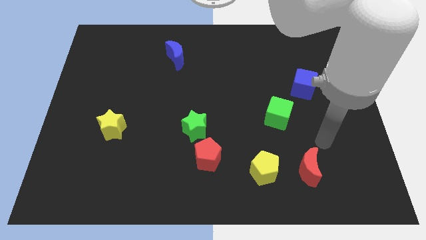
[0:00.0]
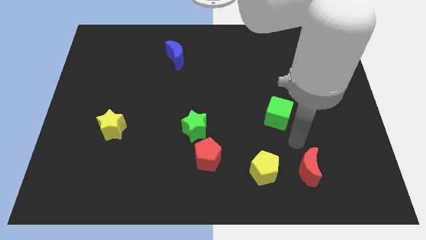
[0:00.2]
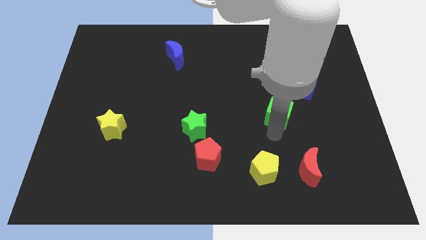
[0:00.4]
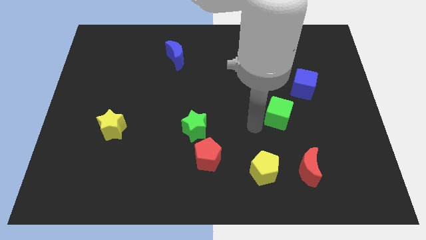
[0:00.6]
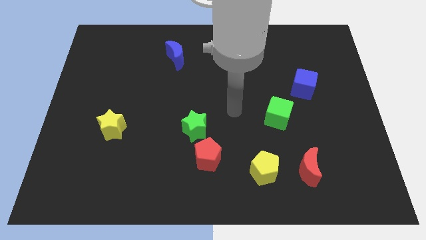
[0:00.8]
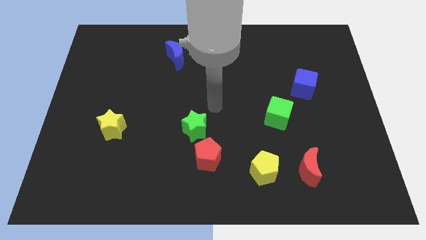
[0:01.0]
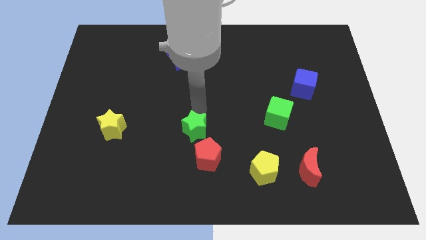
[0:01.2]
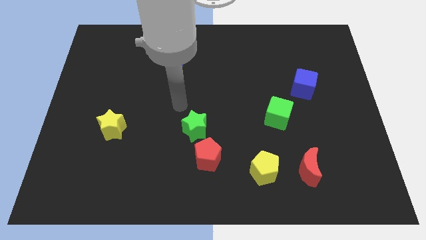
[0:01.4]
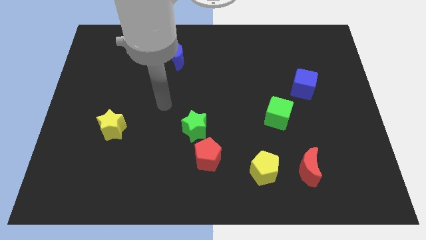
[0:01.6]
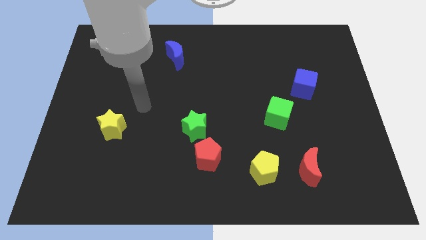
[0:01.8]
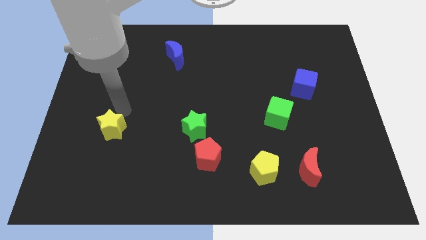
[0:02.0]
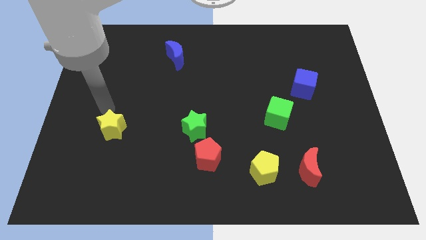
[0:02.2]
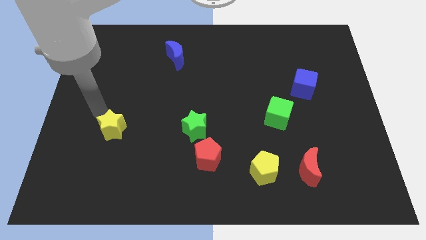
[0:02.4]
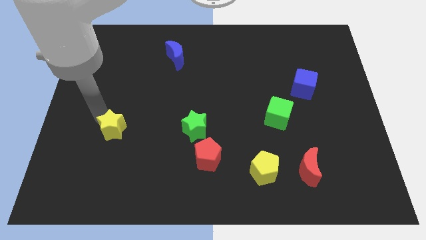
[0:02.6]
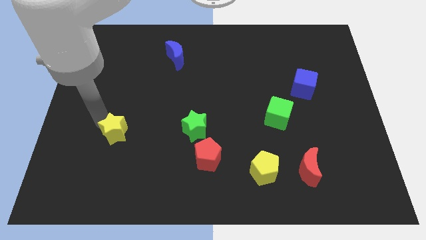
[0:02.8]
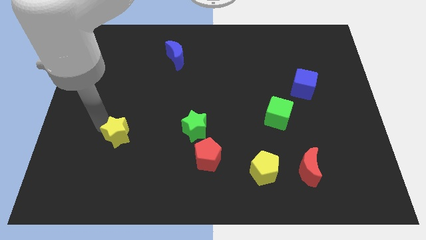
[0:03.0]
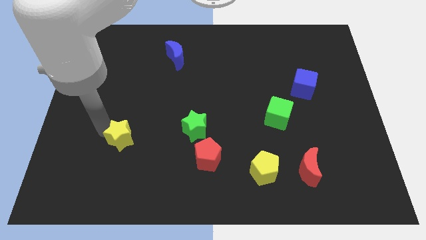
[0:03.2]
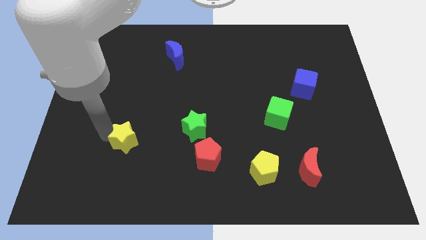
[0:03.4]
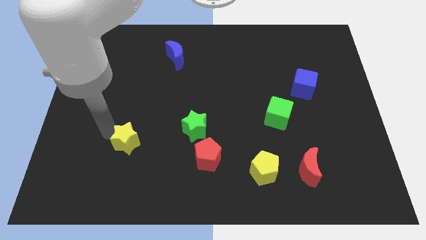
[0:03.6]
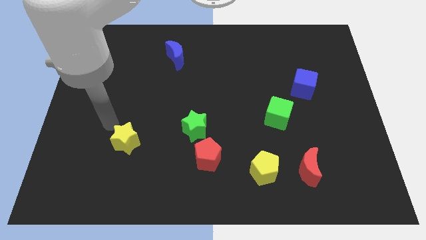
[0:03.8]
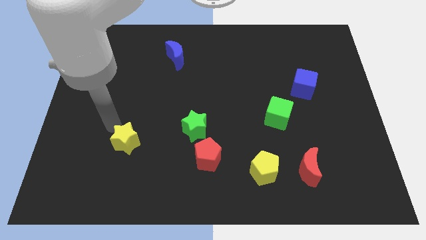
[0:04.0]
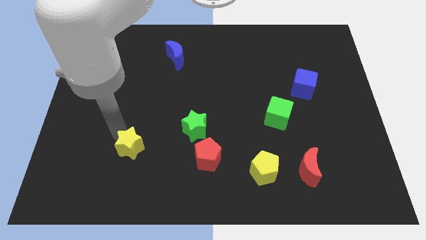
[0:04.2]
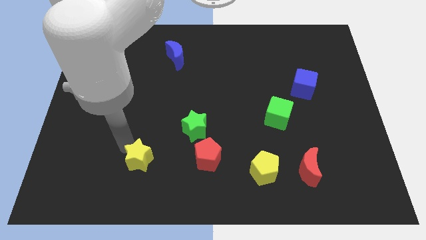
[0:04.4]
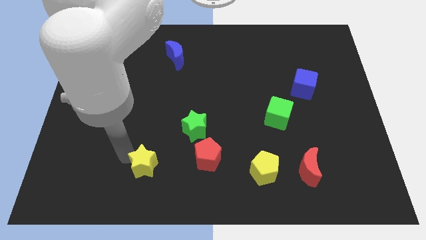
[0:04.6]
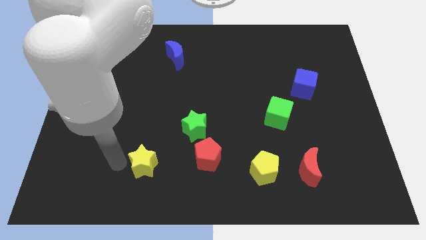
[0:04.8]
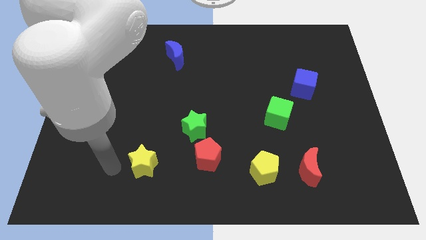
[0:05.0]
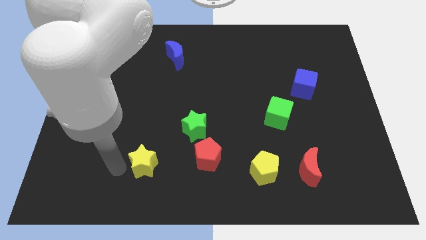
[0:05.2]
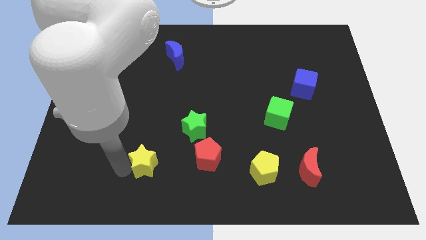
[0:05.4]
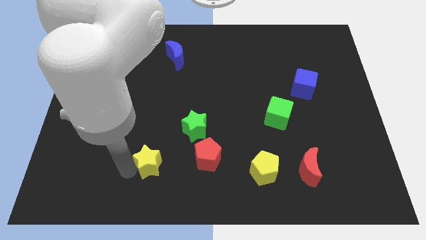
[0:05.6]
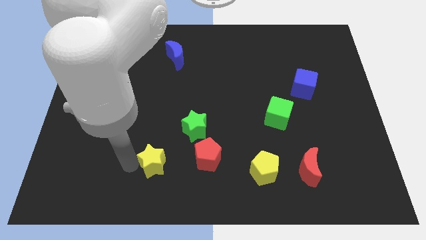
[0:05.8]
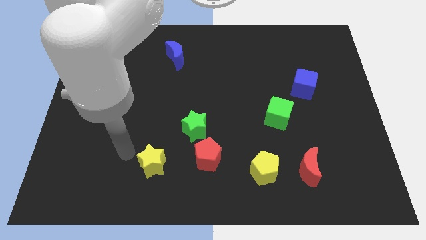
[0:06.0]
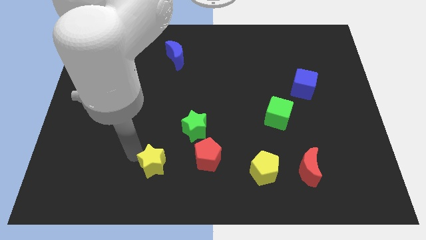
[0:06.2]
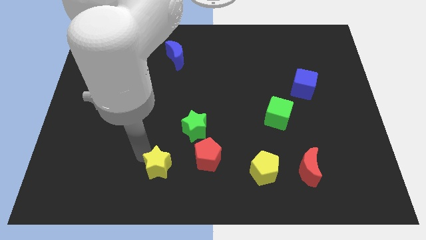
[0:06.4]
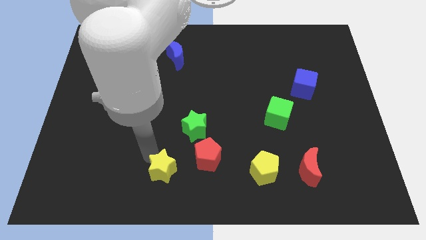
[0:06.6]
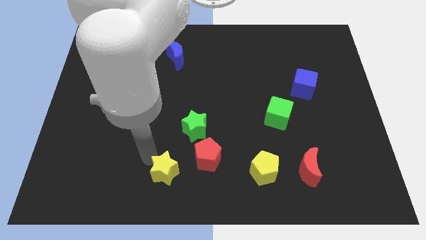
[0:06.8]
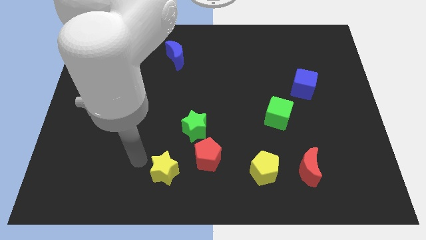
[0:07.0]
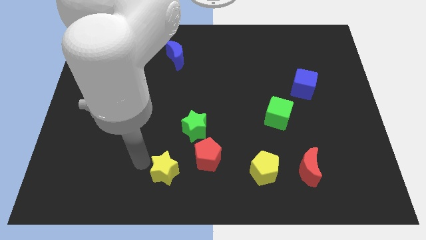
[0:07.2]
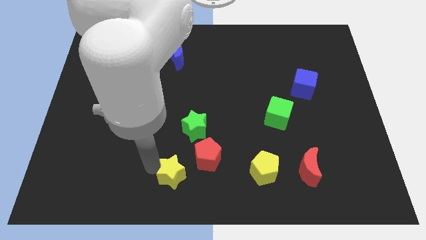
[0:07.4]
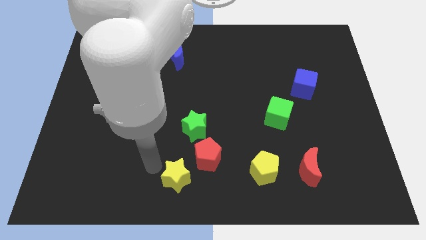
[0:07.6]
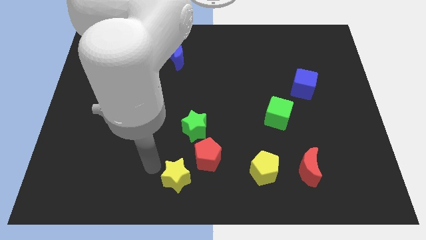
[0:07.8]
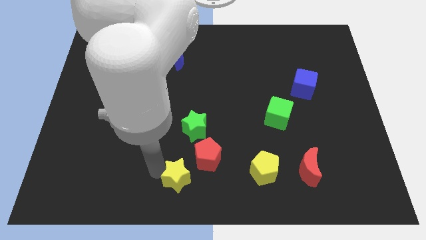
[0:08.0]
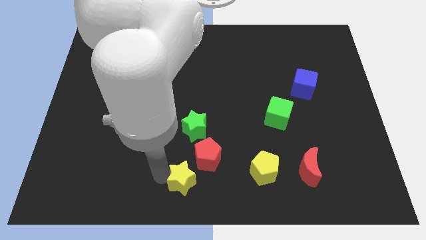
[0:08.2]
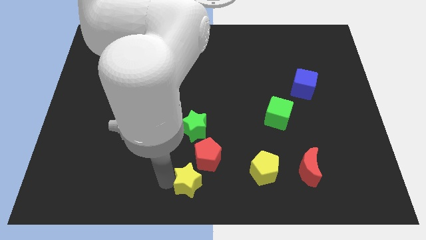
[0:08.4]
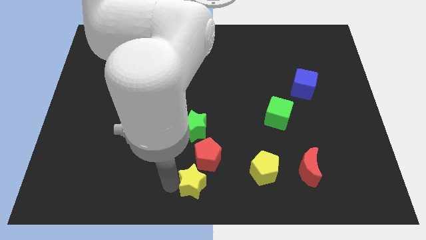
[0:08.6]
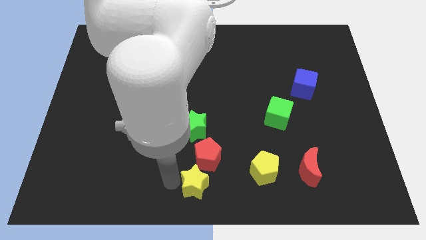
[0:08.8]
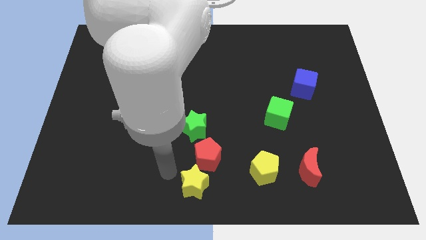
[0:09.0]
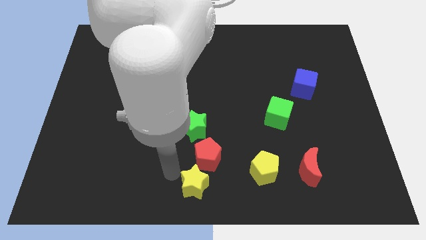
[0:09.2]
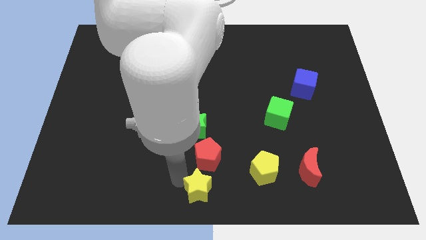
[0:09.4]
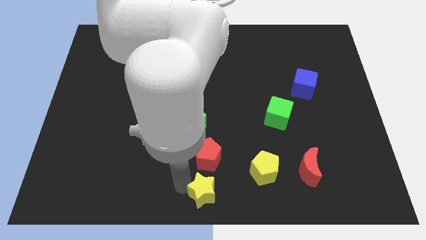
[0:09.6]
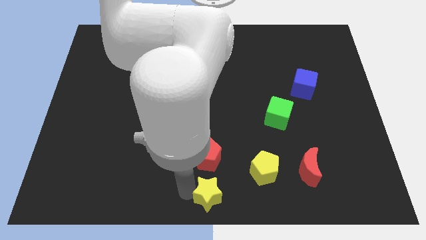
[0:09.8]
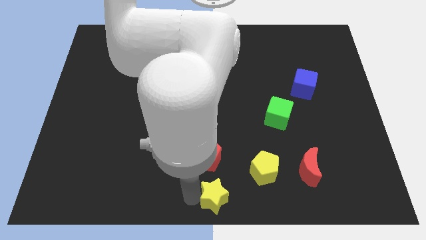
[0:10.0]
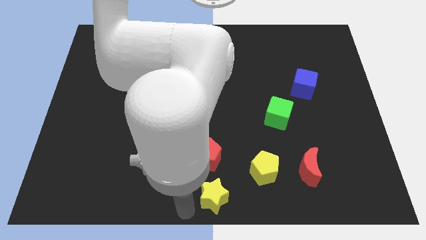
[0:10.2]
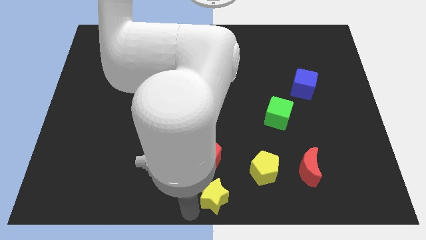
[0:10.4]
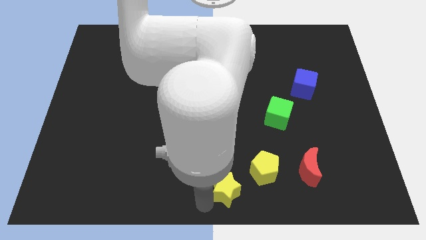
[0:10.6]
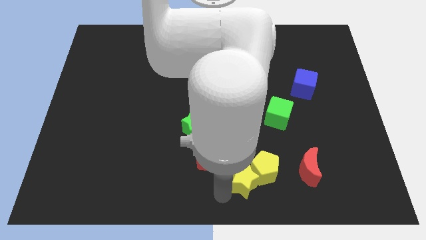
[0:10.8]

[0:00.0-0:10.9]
move the yellow star close to the yellow pentagon

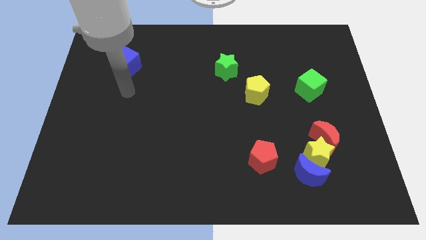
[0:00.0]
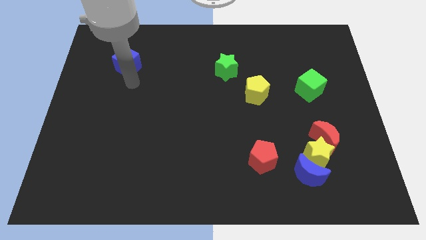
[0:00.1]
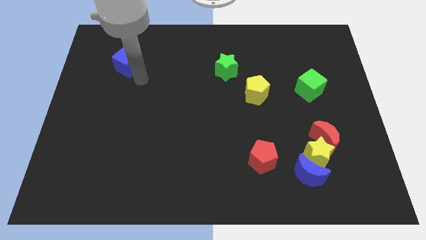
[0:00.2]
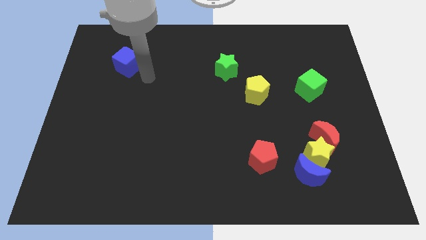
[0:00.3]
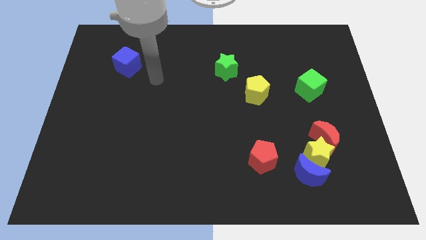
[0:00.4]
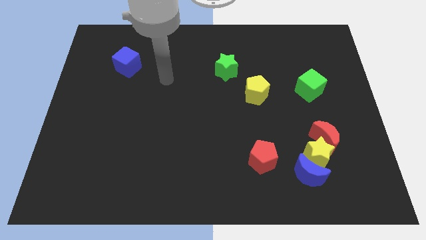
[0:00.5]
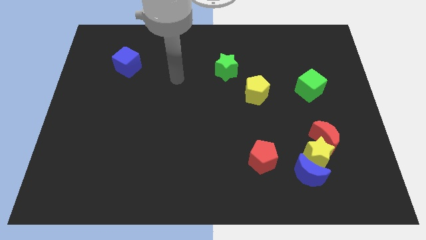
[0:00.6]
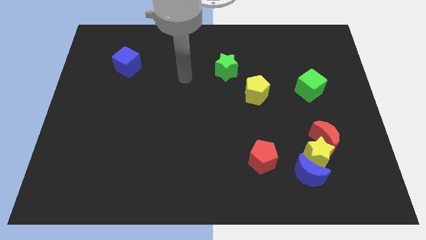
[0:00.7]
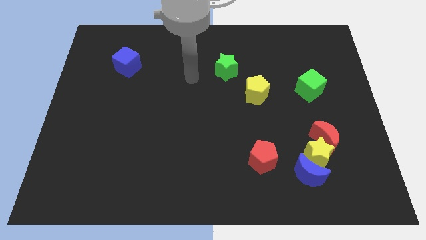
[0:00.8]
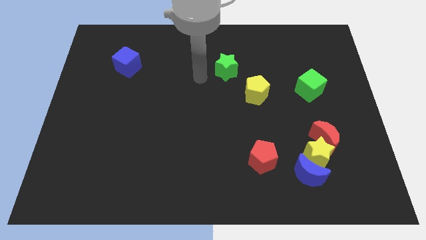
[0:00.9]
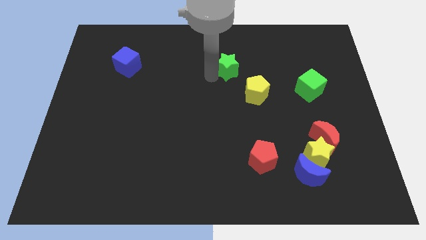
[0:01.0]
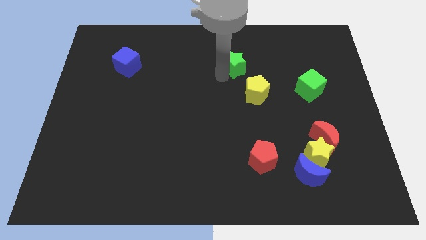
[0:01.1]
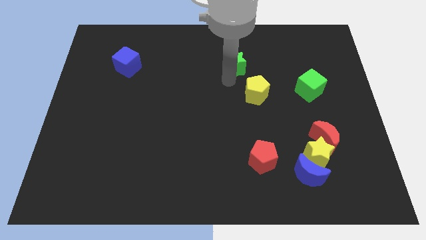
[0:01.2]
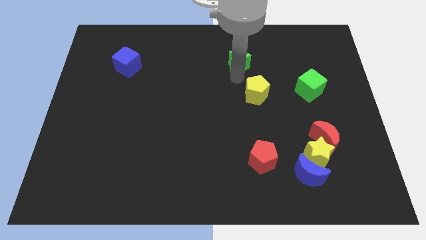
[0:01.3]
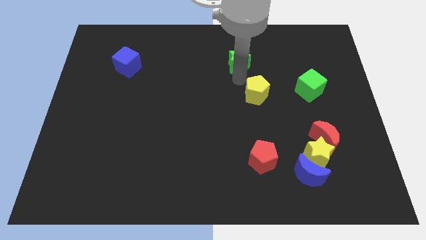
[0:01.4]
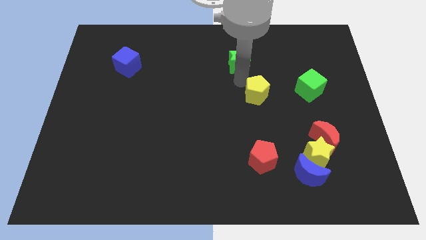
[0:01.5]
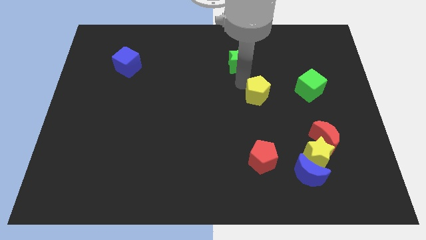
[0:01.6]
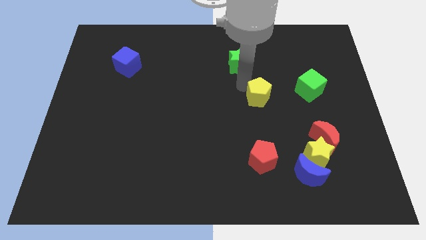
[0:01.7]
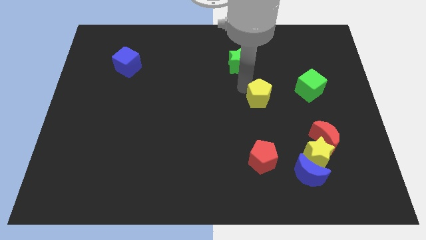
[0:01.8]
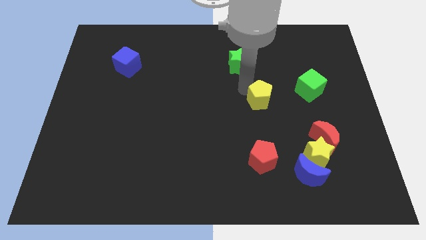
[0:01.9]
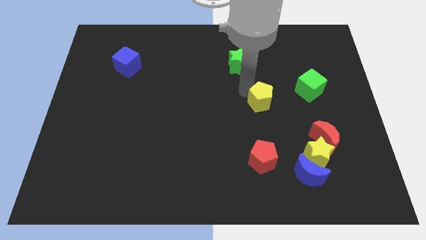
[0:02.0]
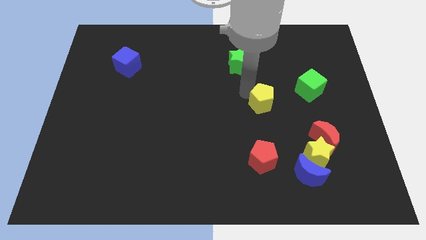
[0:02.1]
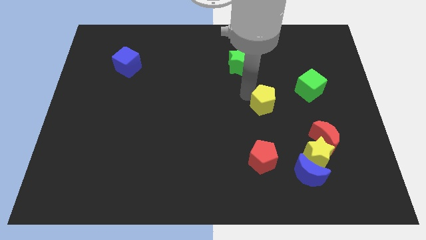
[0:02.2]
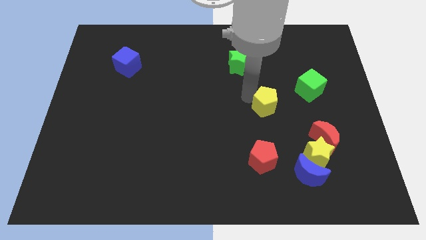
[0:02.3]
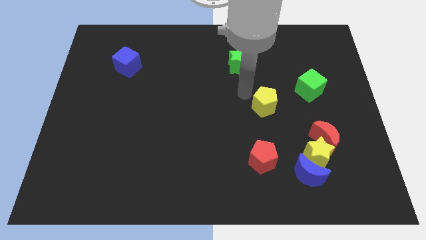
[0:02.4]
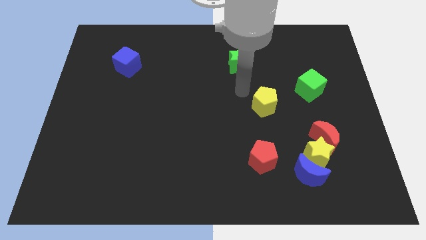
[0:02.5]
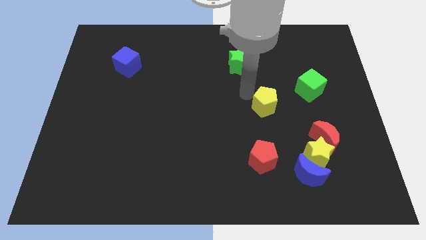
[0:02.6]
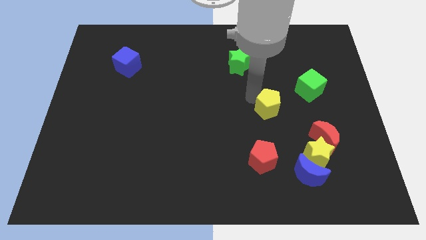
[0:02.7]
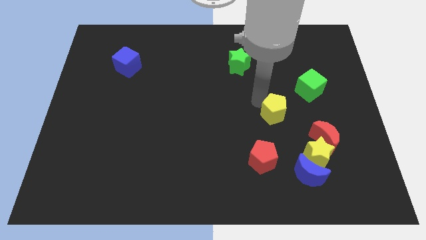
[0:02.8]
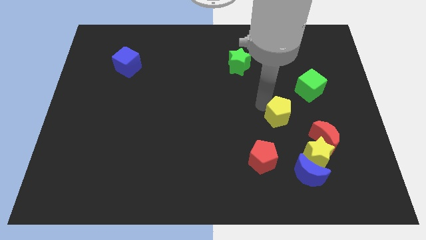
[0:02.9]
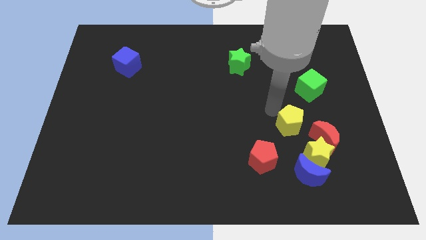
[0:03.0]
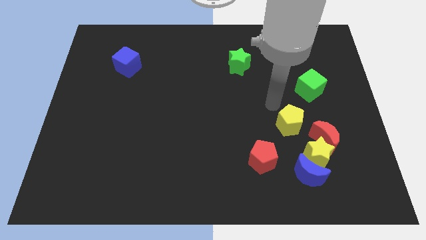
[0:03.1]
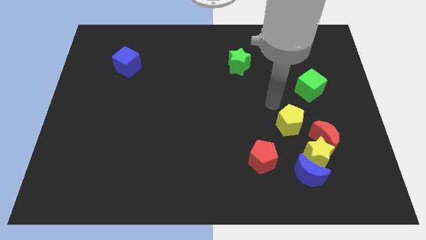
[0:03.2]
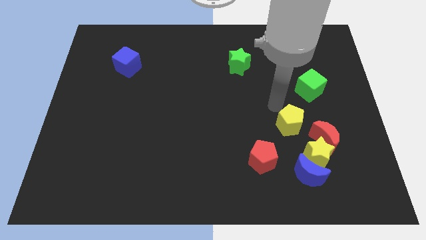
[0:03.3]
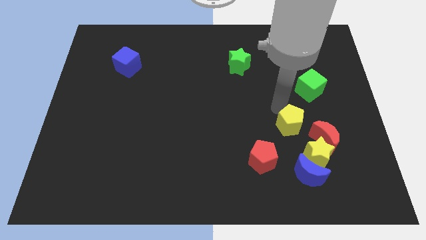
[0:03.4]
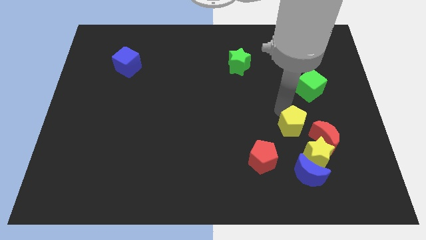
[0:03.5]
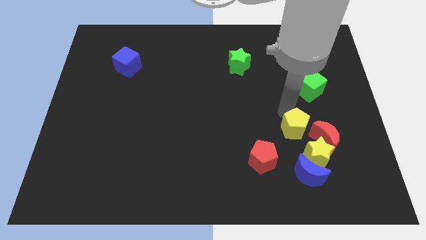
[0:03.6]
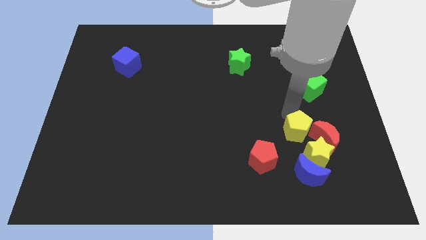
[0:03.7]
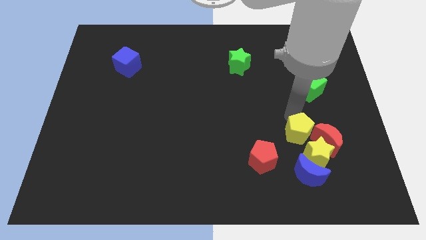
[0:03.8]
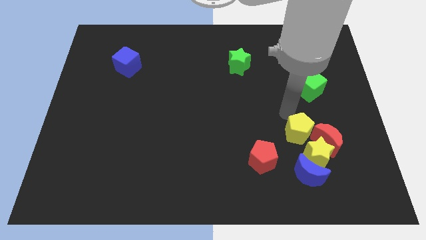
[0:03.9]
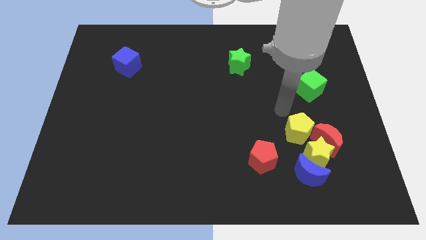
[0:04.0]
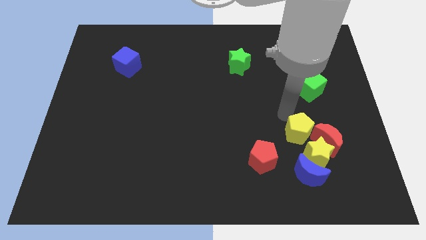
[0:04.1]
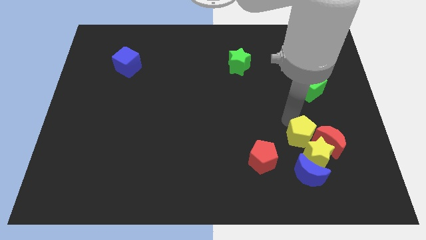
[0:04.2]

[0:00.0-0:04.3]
slide the yellow pentagon close to the yellow star
